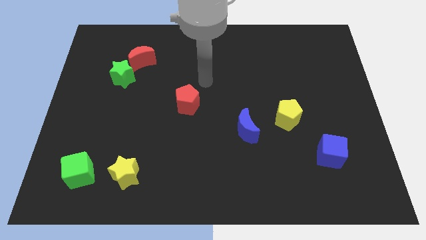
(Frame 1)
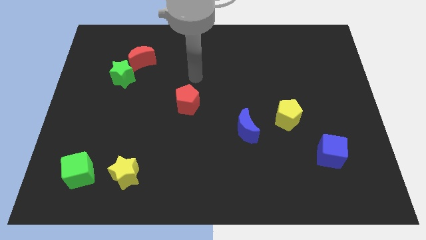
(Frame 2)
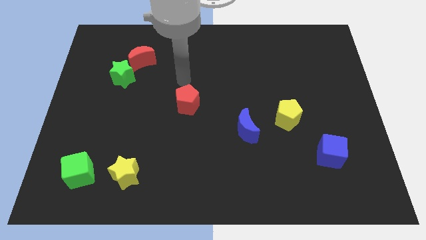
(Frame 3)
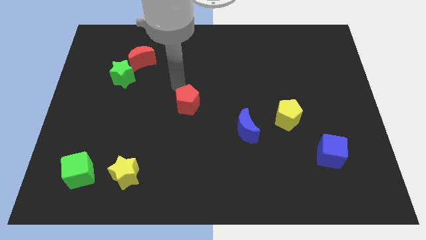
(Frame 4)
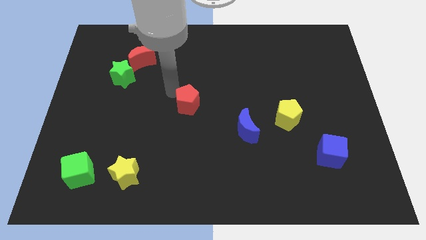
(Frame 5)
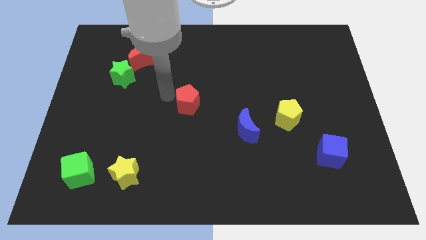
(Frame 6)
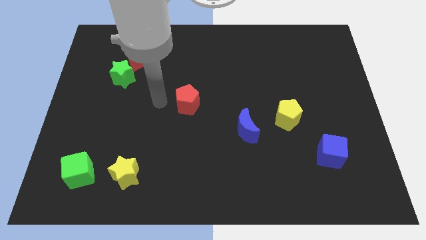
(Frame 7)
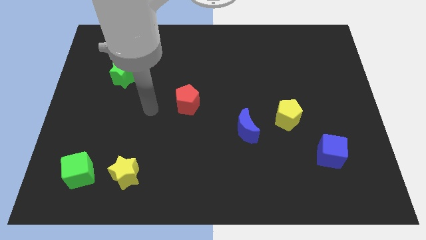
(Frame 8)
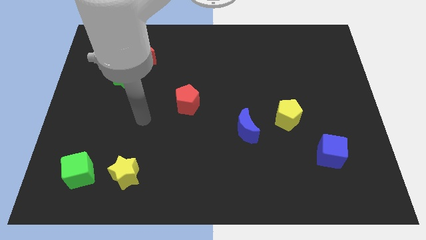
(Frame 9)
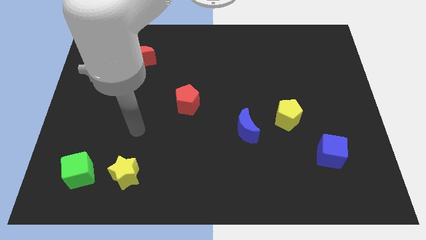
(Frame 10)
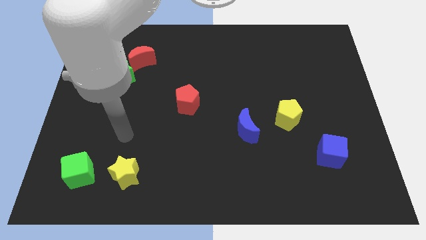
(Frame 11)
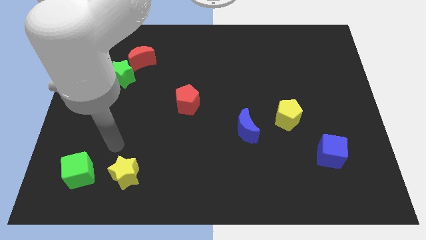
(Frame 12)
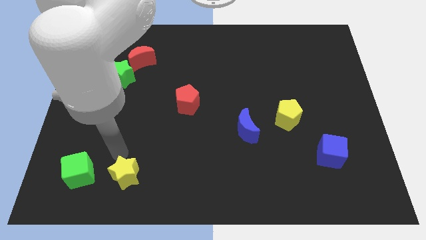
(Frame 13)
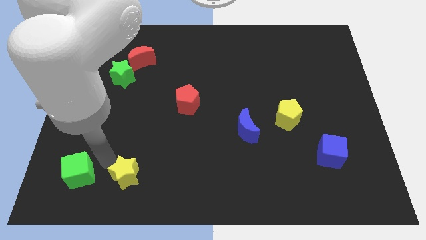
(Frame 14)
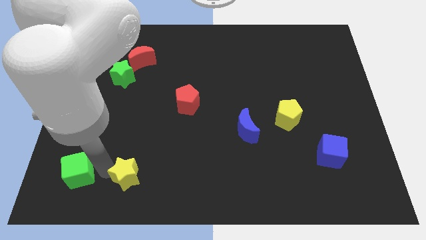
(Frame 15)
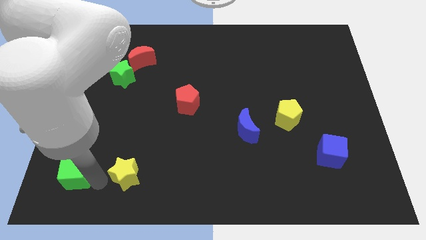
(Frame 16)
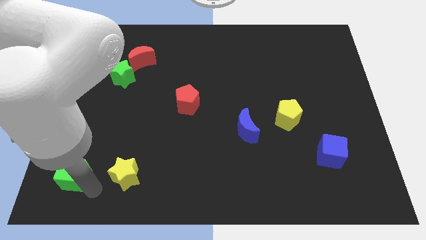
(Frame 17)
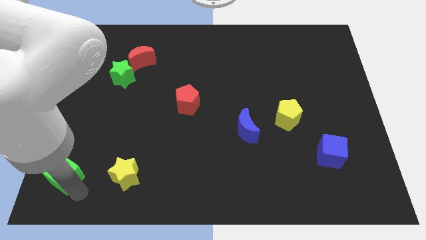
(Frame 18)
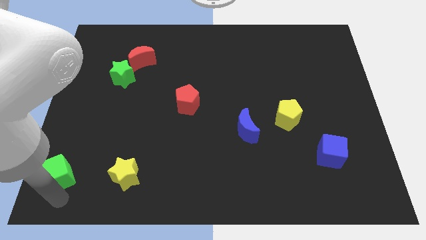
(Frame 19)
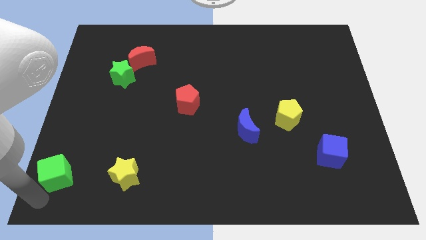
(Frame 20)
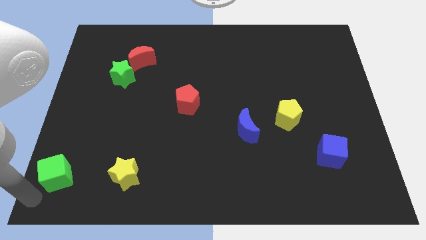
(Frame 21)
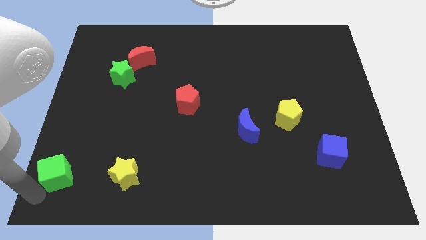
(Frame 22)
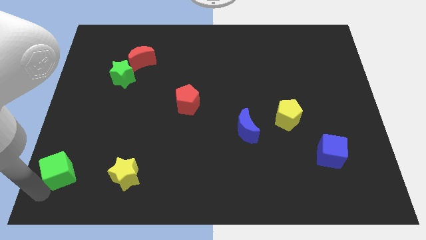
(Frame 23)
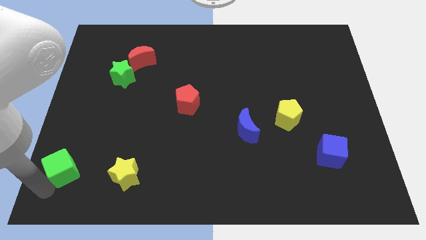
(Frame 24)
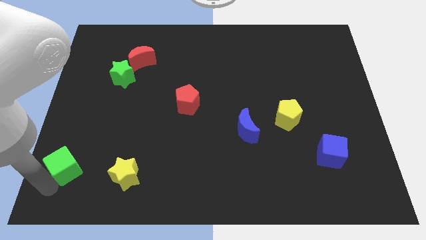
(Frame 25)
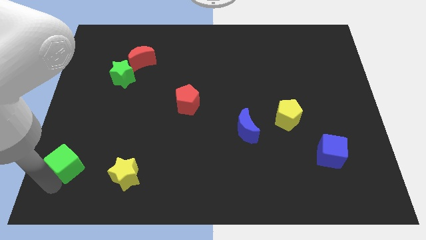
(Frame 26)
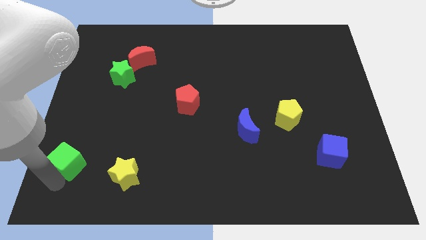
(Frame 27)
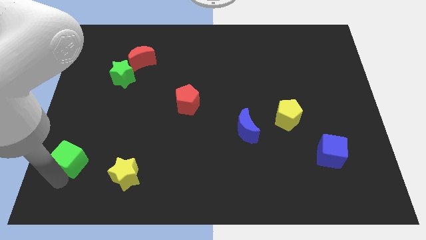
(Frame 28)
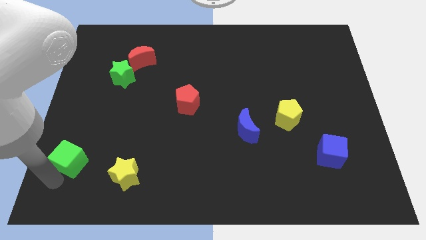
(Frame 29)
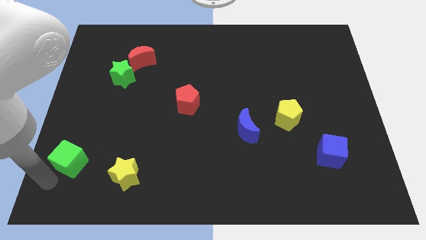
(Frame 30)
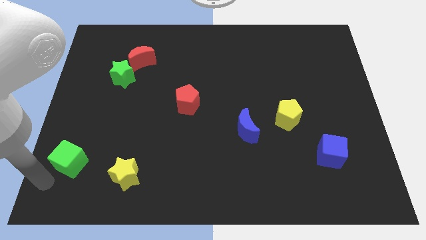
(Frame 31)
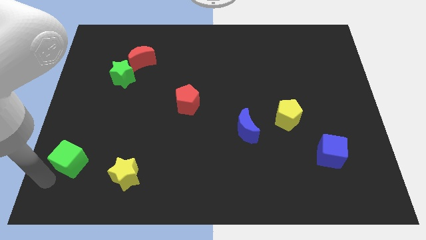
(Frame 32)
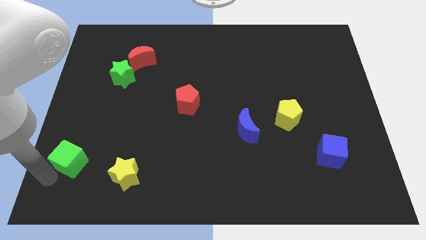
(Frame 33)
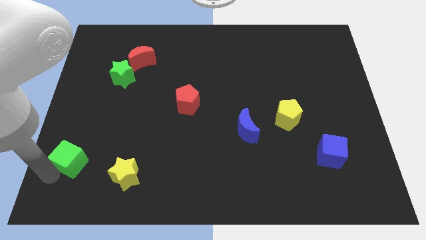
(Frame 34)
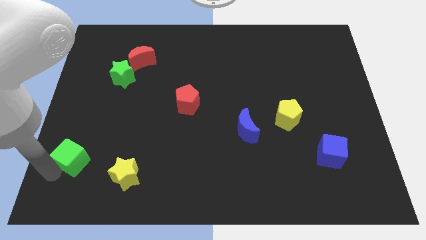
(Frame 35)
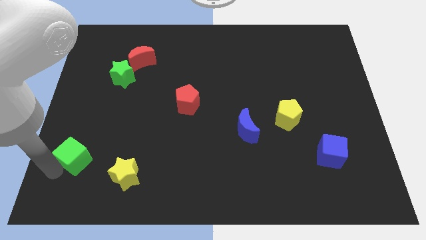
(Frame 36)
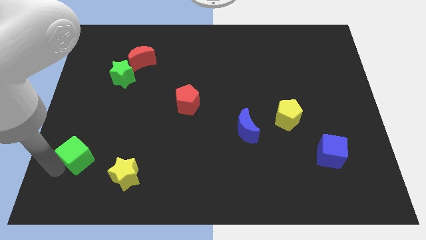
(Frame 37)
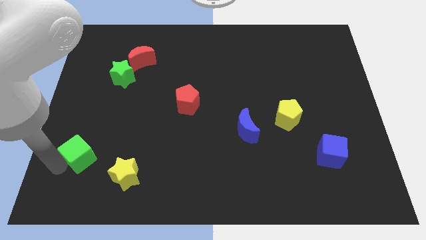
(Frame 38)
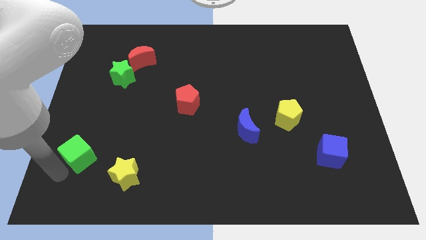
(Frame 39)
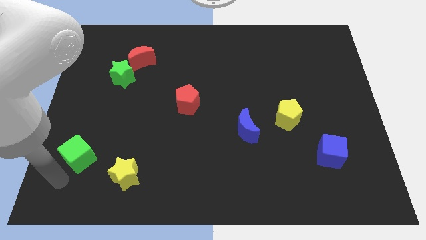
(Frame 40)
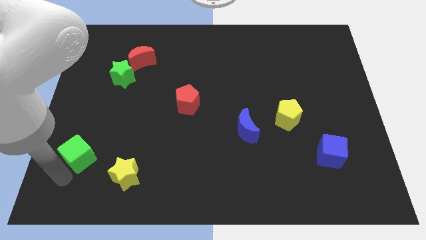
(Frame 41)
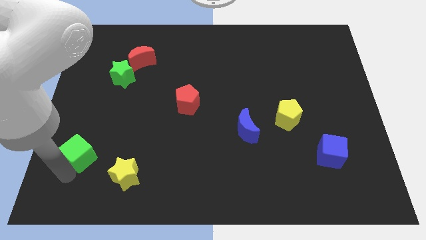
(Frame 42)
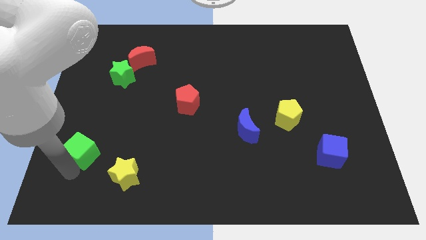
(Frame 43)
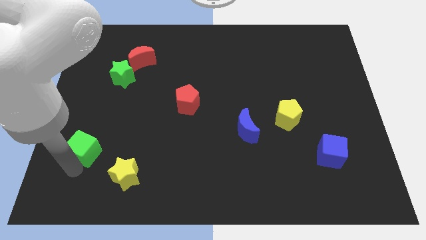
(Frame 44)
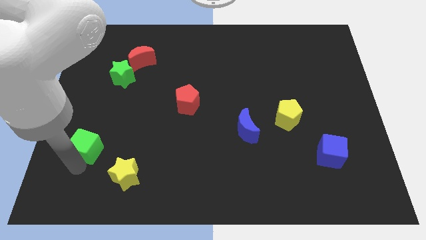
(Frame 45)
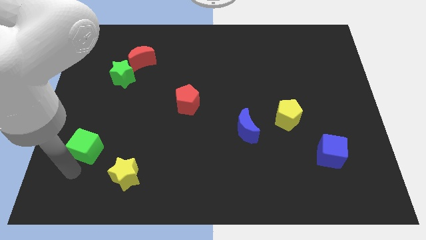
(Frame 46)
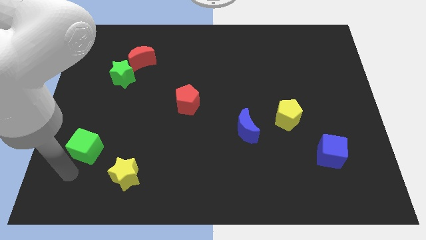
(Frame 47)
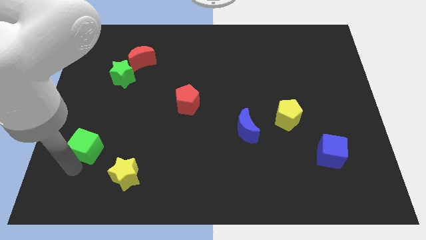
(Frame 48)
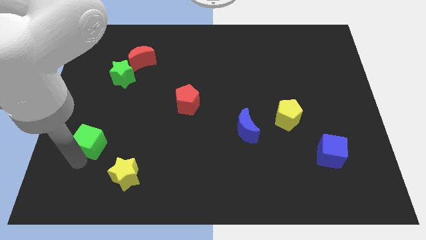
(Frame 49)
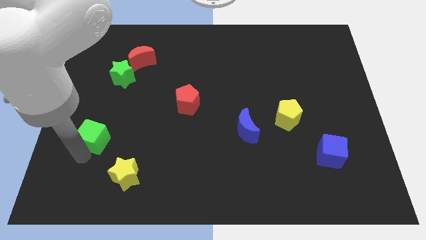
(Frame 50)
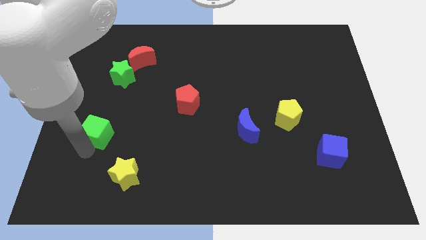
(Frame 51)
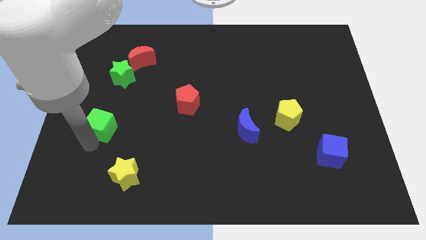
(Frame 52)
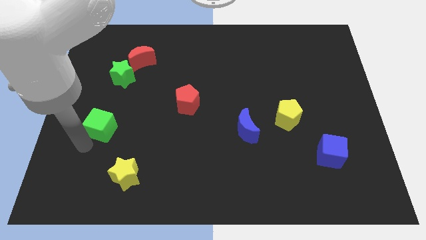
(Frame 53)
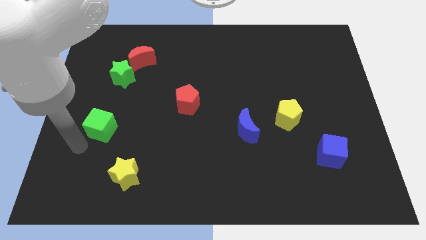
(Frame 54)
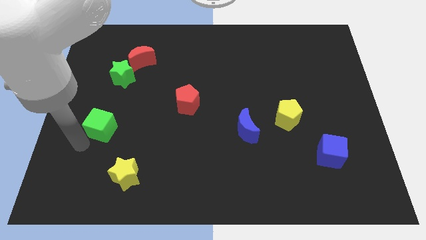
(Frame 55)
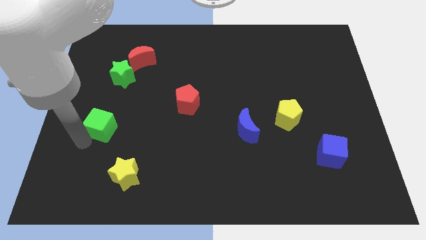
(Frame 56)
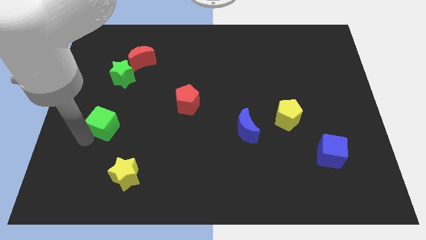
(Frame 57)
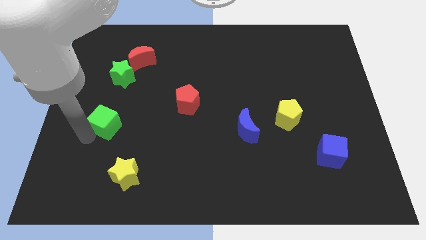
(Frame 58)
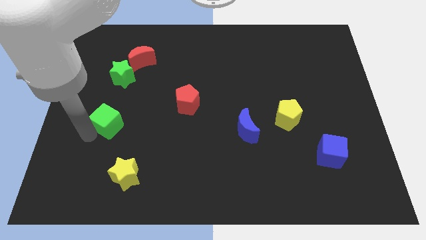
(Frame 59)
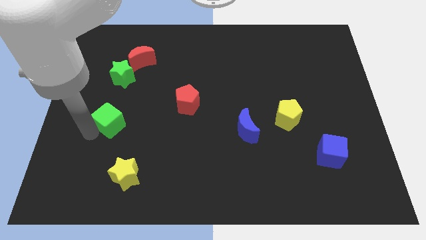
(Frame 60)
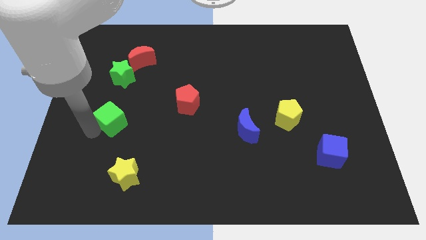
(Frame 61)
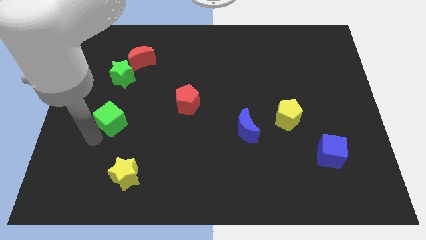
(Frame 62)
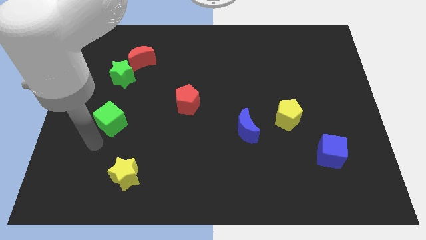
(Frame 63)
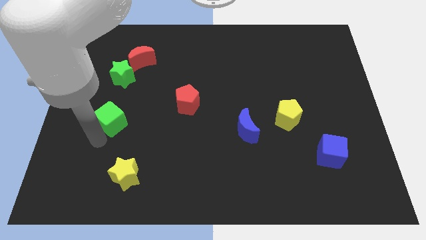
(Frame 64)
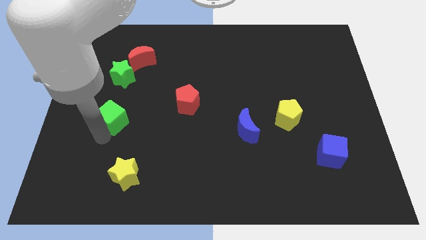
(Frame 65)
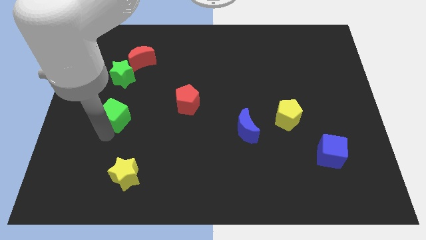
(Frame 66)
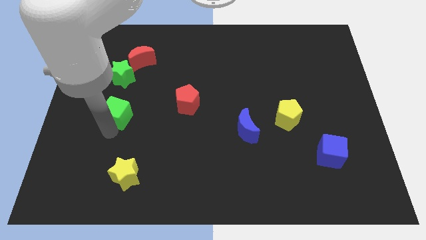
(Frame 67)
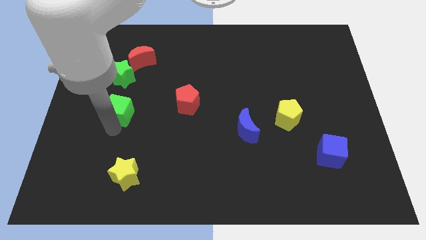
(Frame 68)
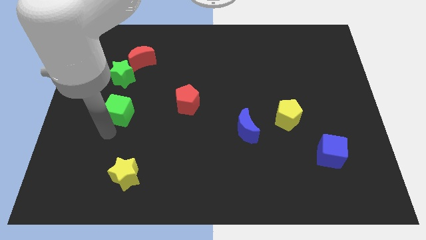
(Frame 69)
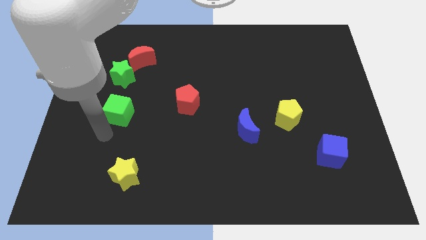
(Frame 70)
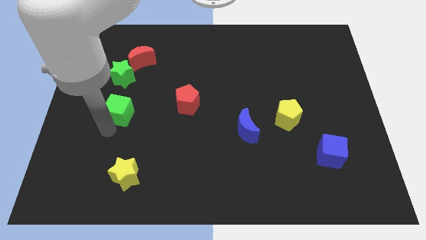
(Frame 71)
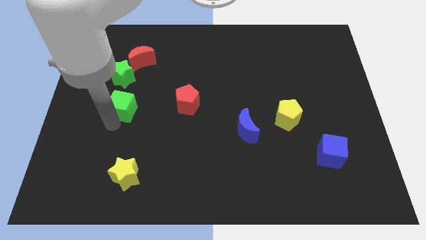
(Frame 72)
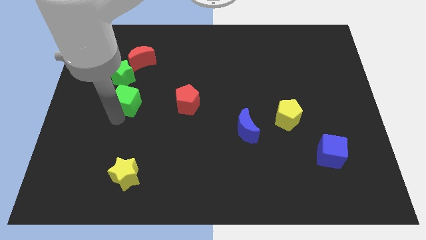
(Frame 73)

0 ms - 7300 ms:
put the green cube to the bottom of the red moon
